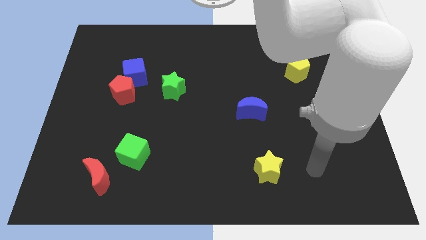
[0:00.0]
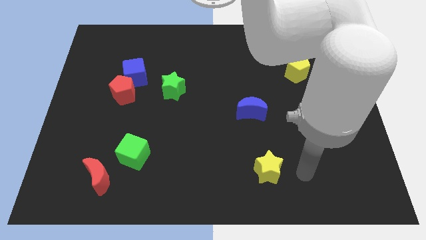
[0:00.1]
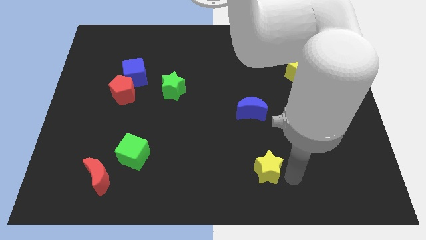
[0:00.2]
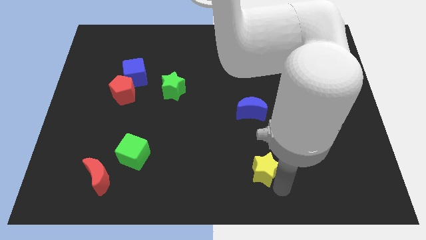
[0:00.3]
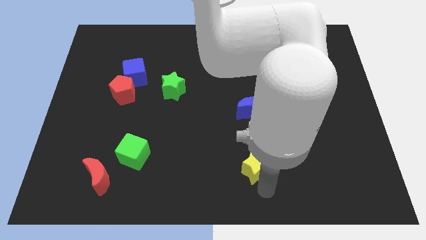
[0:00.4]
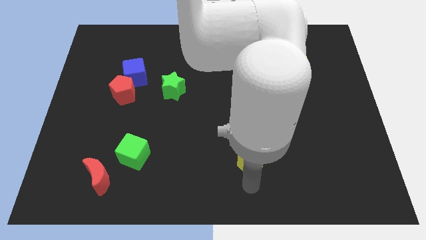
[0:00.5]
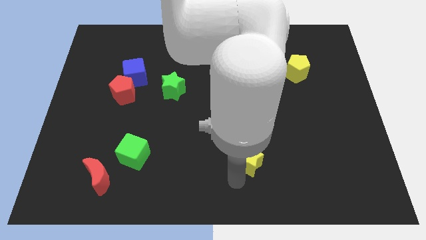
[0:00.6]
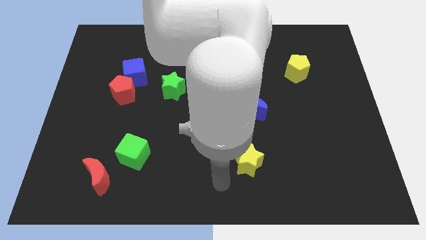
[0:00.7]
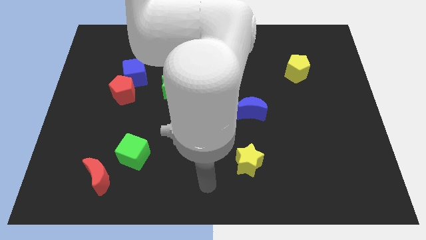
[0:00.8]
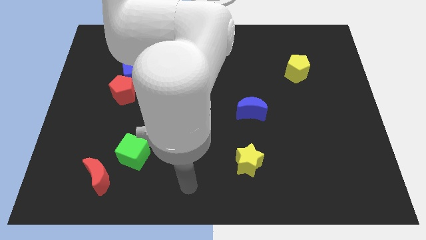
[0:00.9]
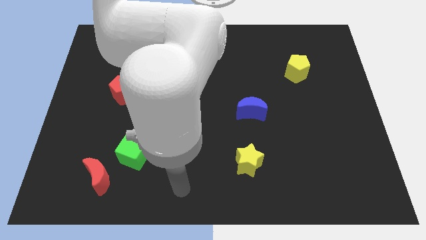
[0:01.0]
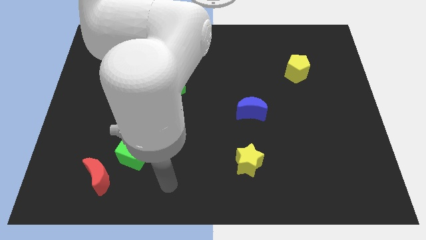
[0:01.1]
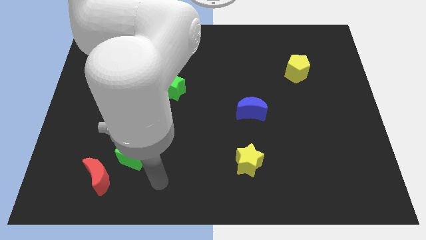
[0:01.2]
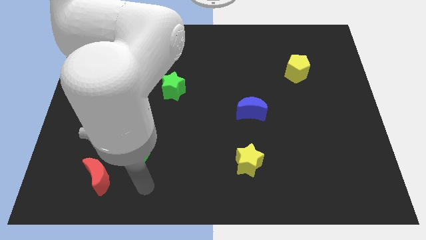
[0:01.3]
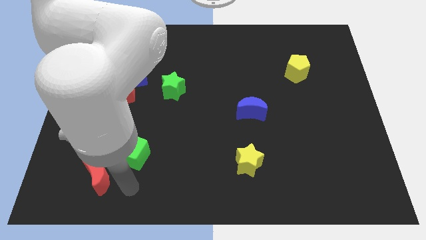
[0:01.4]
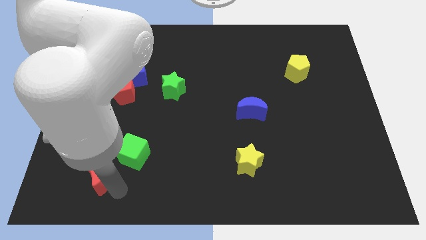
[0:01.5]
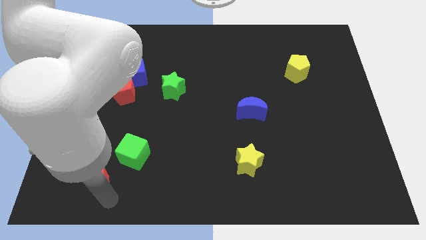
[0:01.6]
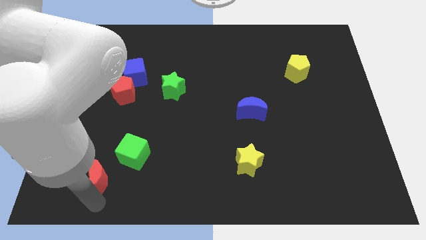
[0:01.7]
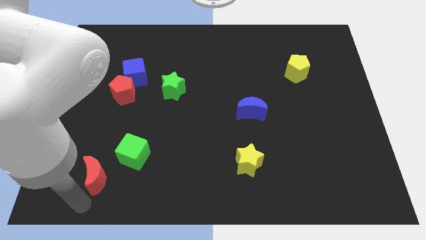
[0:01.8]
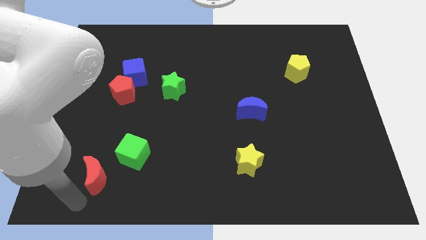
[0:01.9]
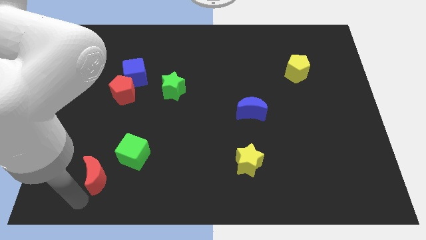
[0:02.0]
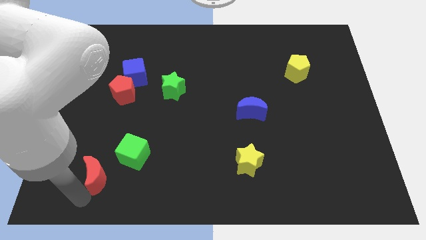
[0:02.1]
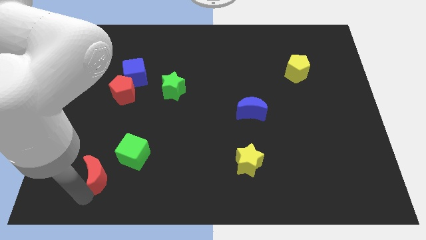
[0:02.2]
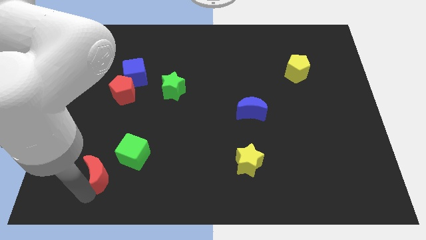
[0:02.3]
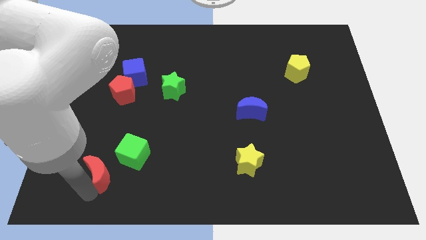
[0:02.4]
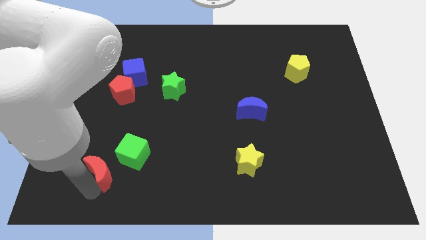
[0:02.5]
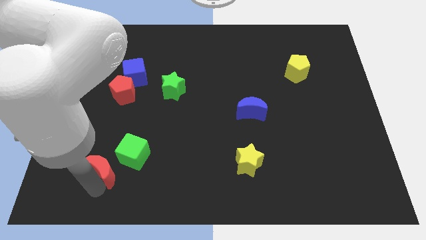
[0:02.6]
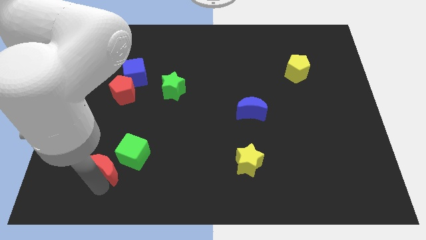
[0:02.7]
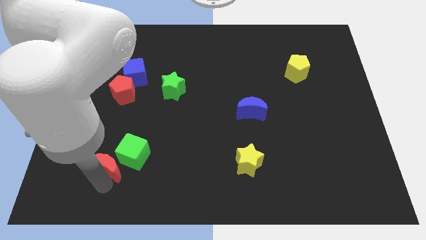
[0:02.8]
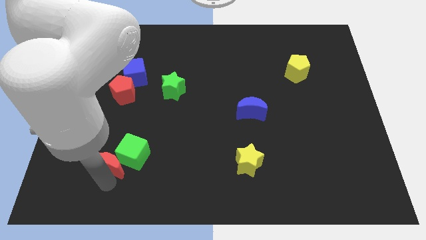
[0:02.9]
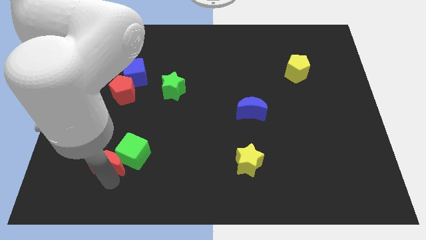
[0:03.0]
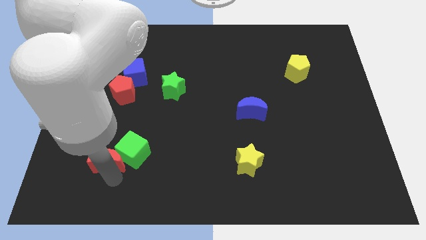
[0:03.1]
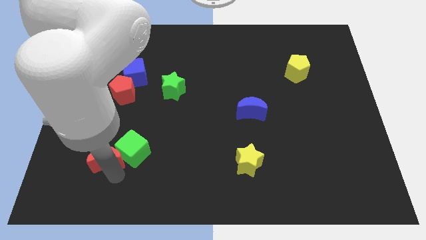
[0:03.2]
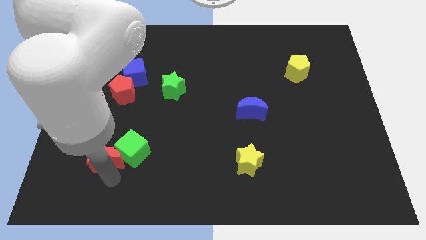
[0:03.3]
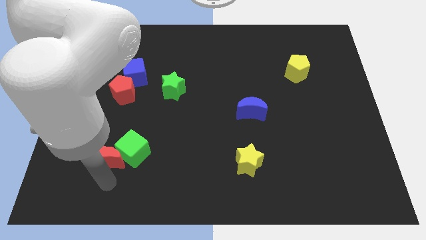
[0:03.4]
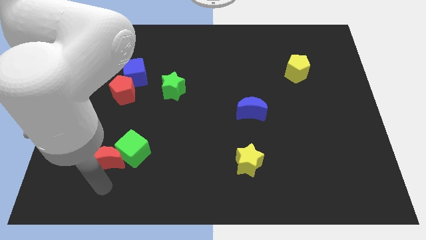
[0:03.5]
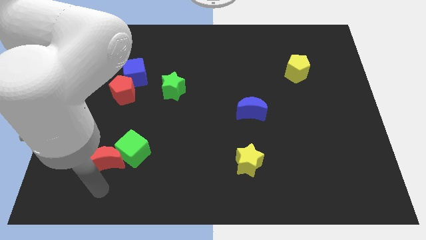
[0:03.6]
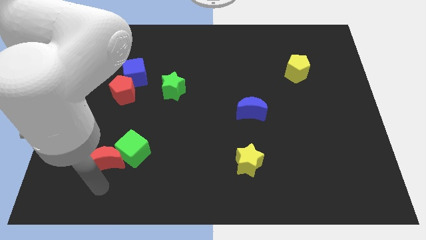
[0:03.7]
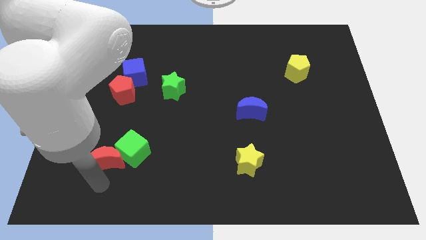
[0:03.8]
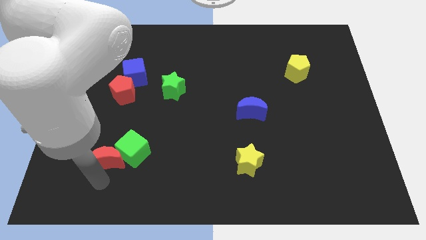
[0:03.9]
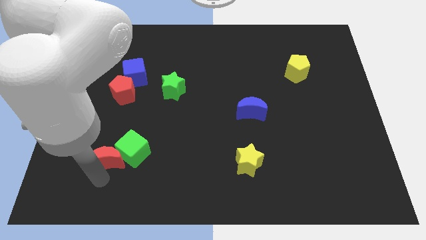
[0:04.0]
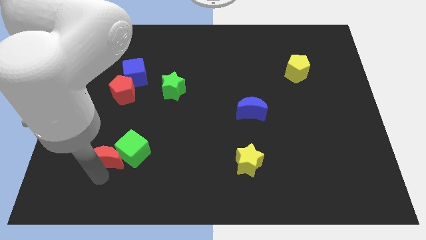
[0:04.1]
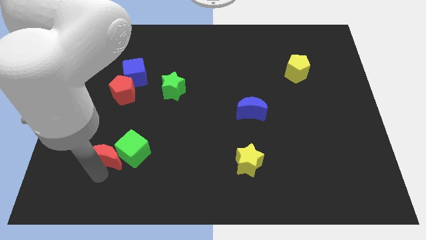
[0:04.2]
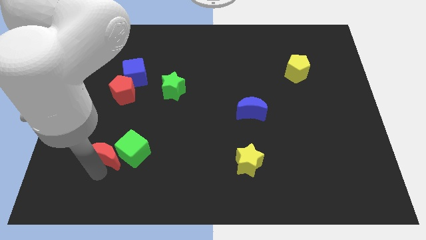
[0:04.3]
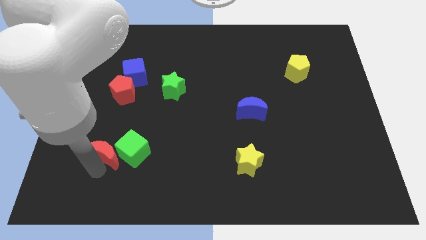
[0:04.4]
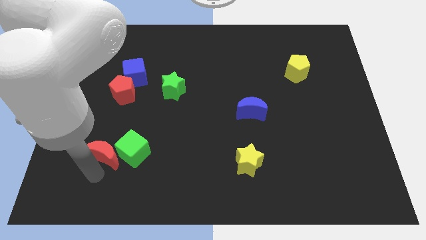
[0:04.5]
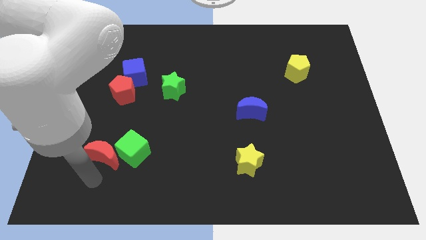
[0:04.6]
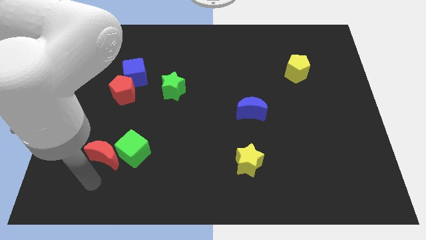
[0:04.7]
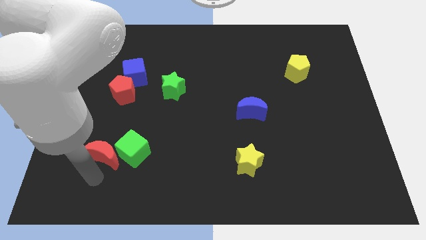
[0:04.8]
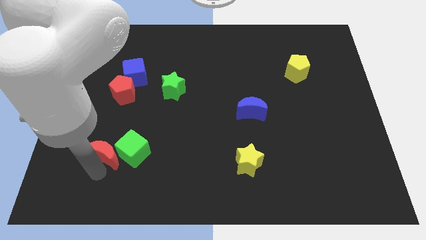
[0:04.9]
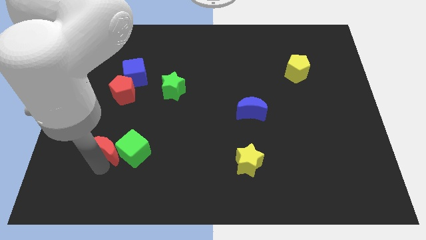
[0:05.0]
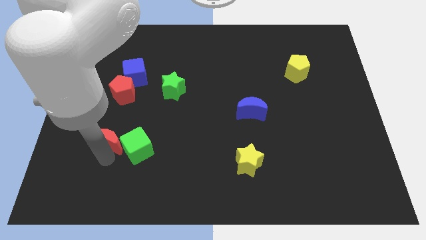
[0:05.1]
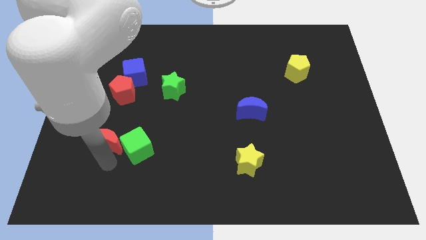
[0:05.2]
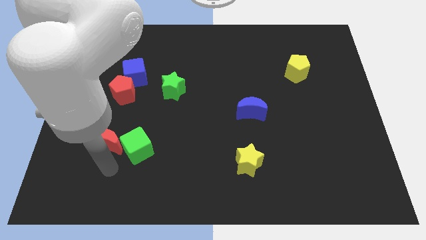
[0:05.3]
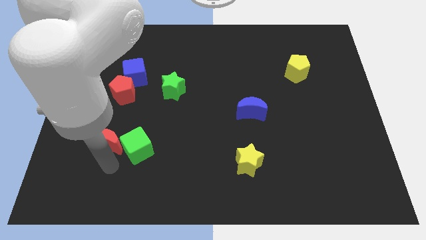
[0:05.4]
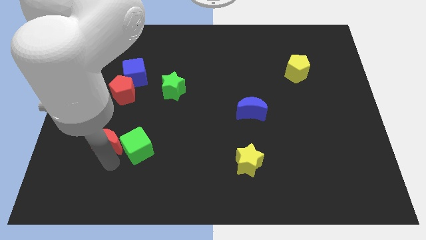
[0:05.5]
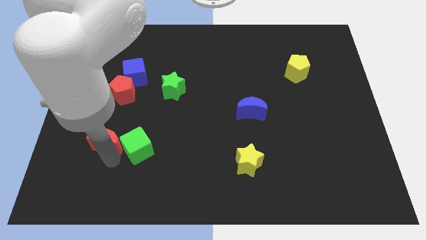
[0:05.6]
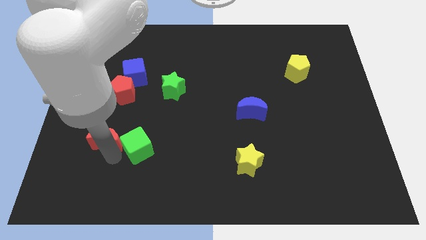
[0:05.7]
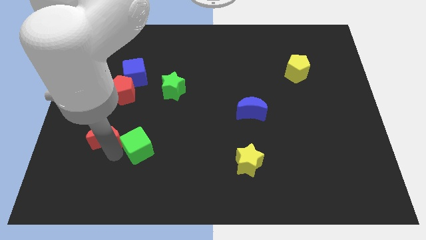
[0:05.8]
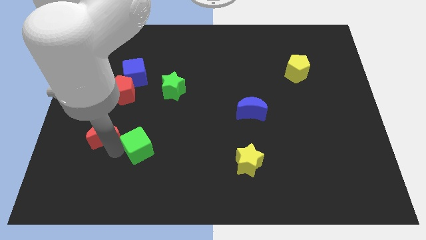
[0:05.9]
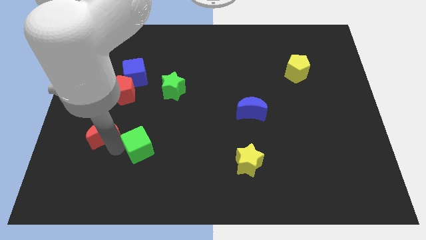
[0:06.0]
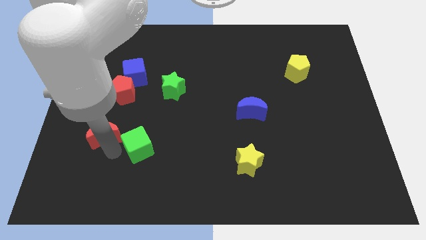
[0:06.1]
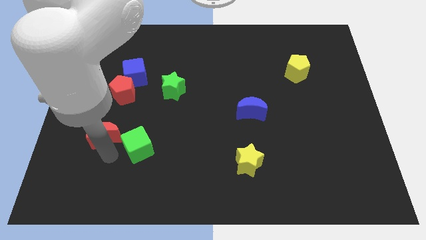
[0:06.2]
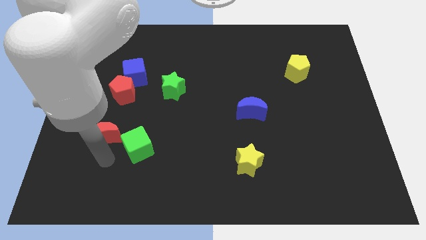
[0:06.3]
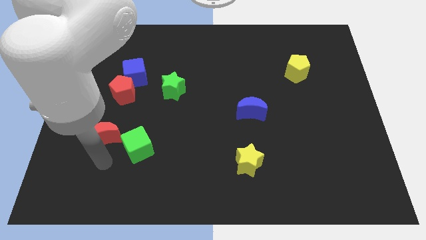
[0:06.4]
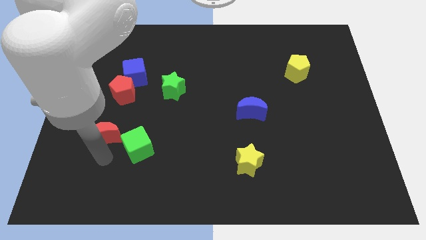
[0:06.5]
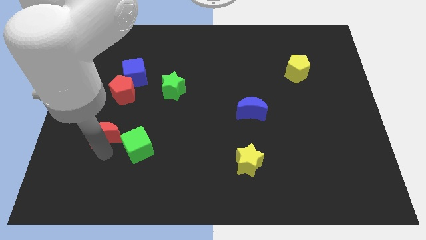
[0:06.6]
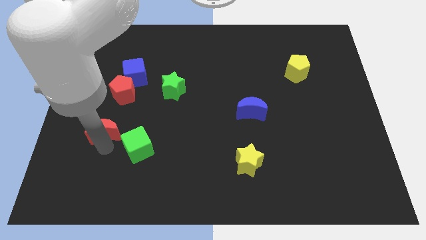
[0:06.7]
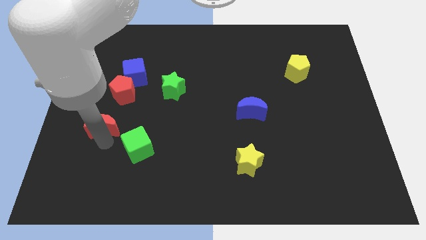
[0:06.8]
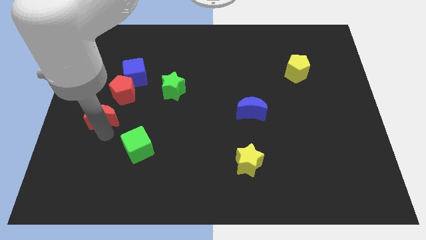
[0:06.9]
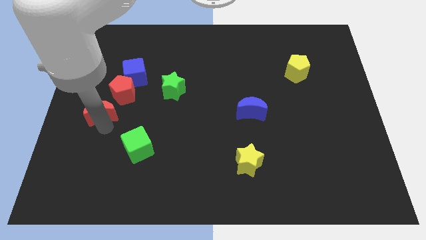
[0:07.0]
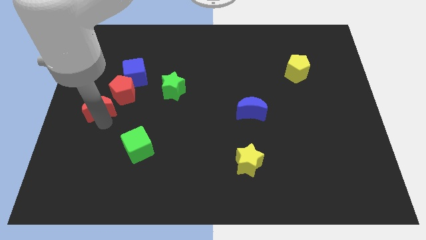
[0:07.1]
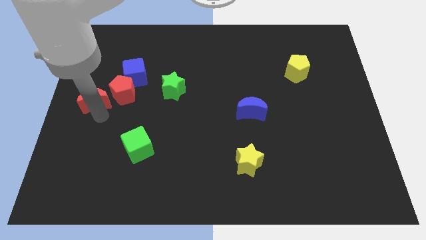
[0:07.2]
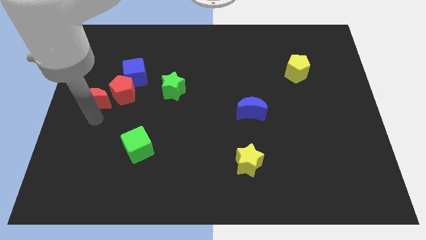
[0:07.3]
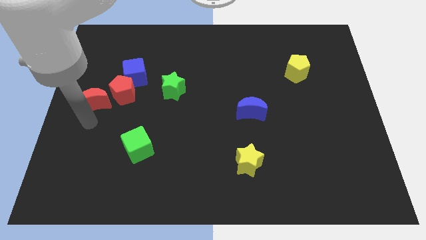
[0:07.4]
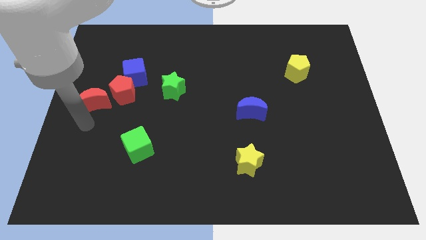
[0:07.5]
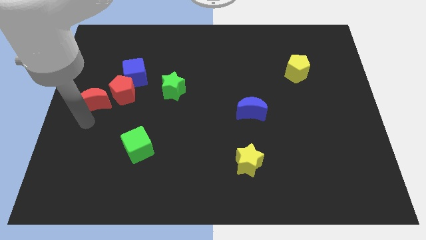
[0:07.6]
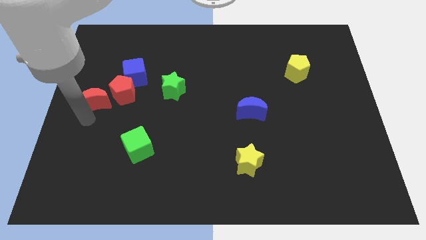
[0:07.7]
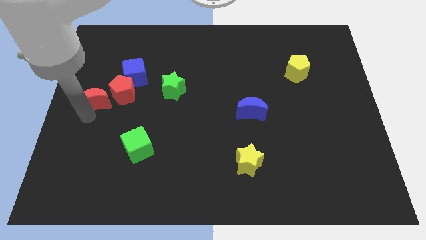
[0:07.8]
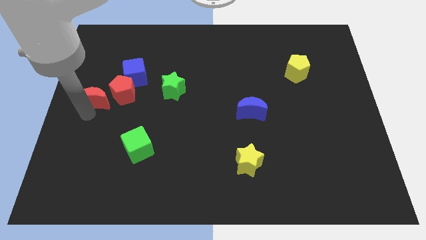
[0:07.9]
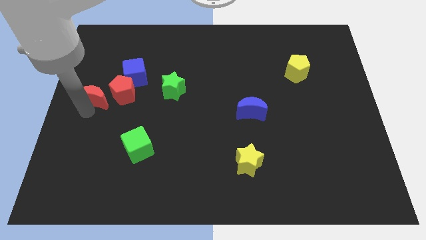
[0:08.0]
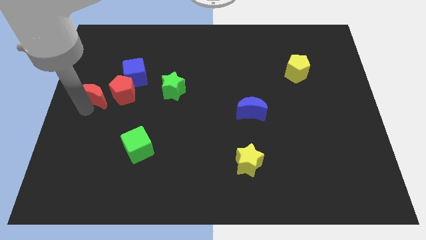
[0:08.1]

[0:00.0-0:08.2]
move the red moon up
